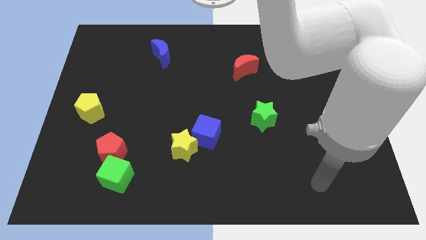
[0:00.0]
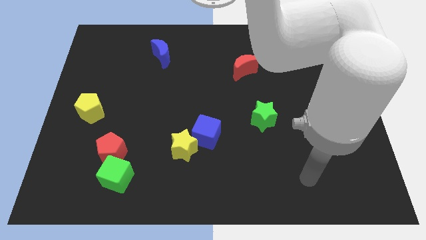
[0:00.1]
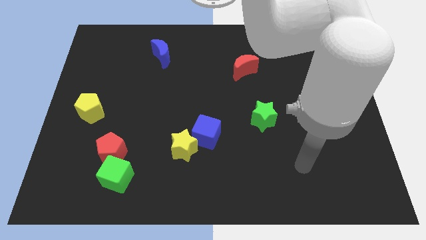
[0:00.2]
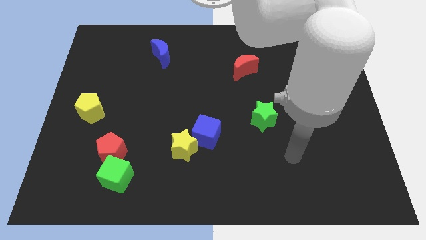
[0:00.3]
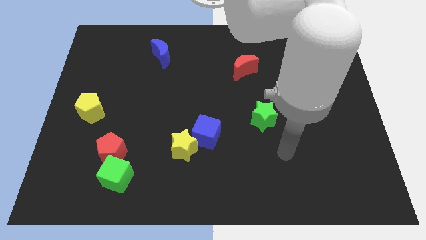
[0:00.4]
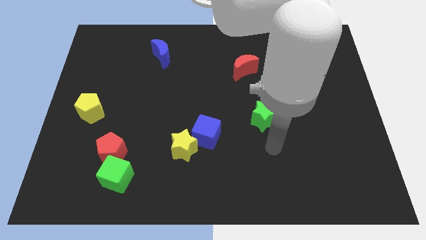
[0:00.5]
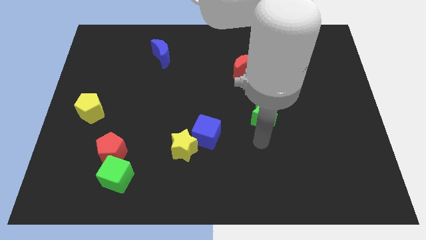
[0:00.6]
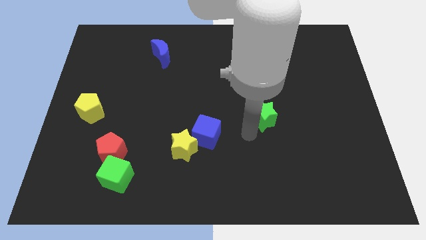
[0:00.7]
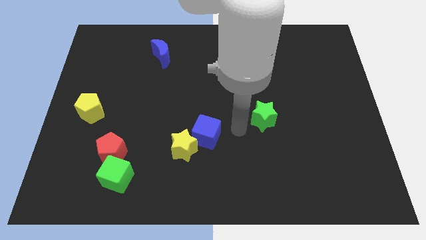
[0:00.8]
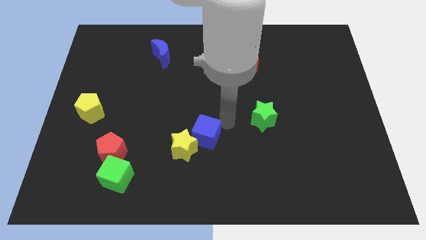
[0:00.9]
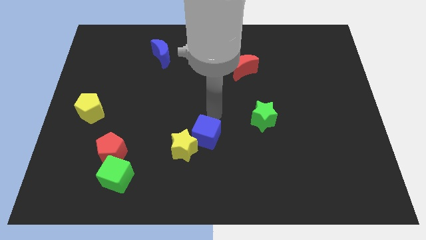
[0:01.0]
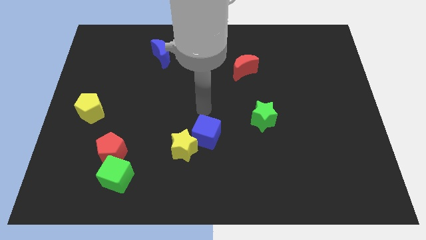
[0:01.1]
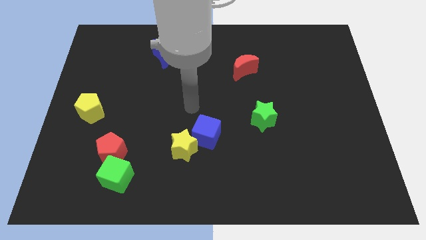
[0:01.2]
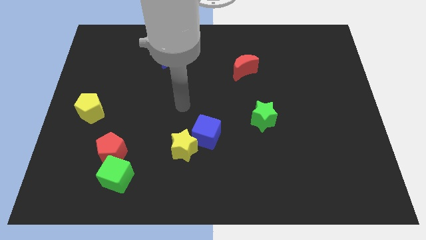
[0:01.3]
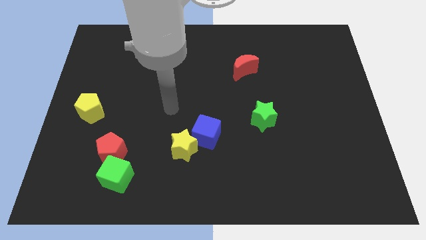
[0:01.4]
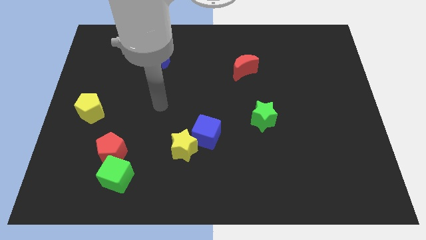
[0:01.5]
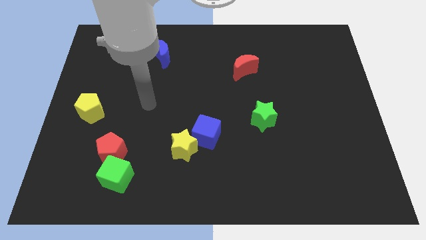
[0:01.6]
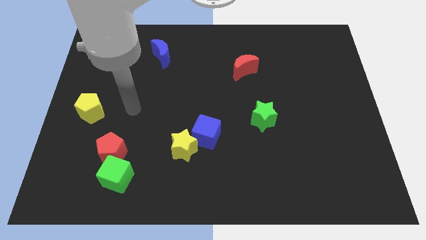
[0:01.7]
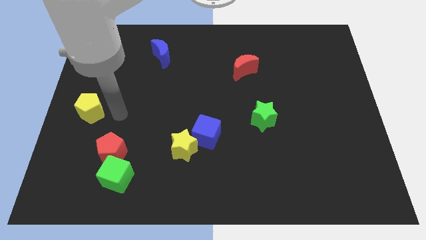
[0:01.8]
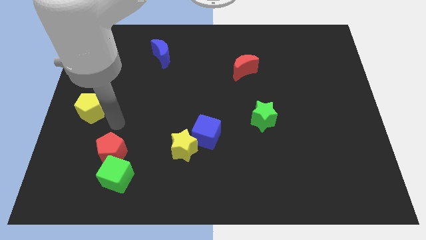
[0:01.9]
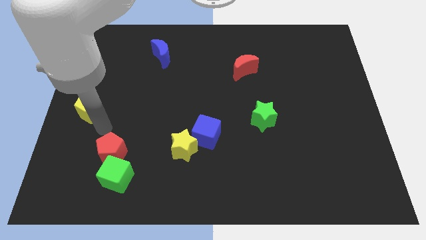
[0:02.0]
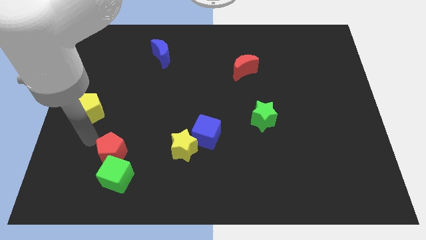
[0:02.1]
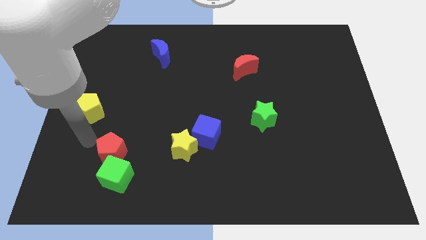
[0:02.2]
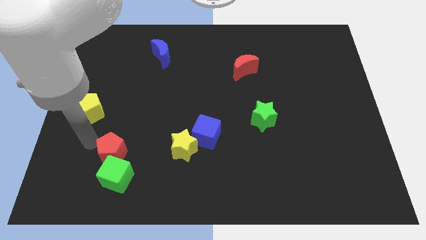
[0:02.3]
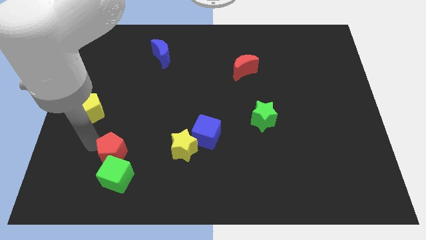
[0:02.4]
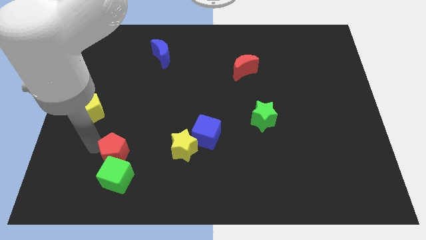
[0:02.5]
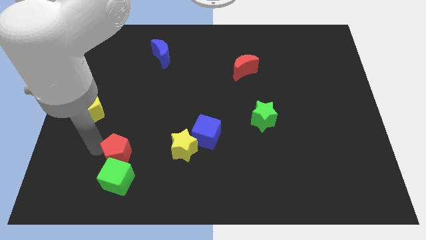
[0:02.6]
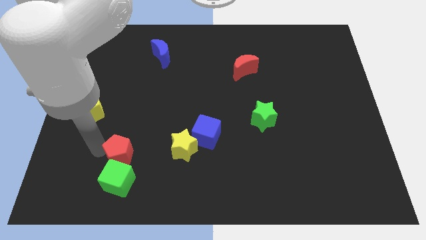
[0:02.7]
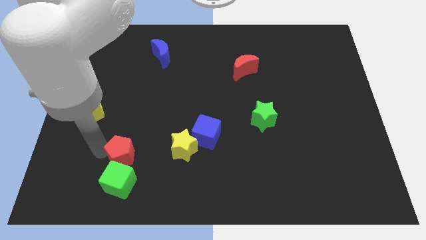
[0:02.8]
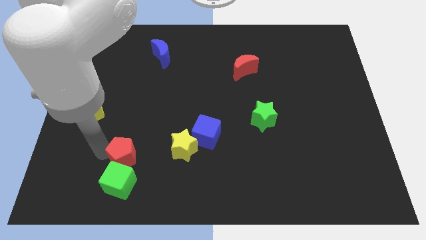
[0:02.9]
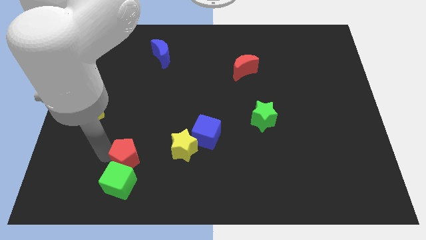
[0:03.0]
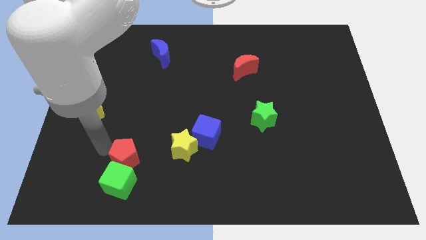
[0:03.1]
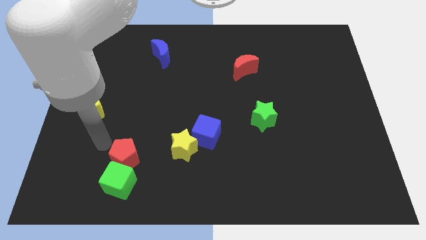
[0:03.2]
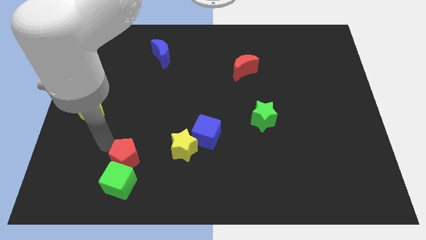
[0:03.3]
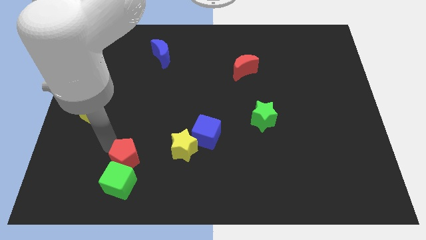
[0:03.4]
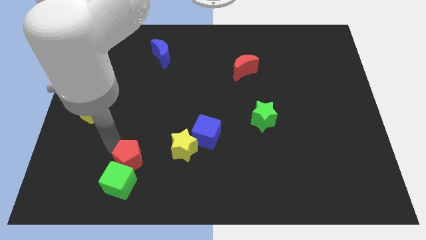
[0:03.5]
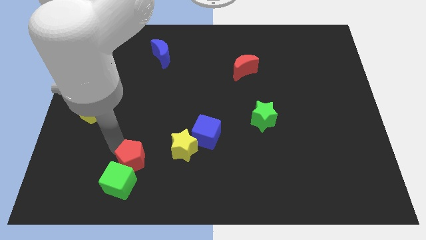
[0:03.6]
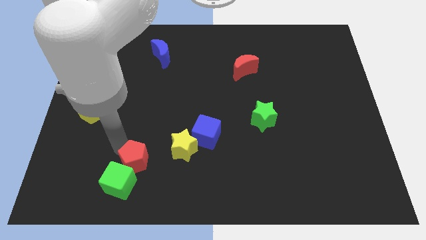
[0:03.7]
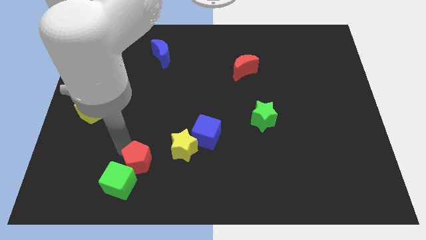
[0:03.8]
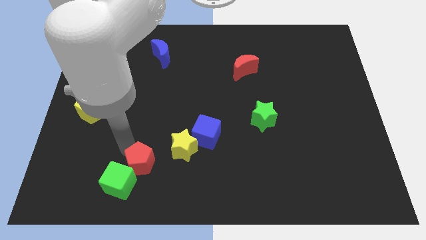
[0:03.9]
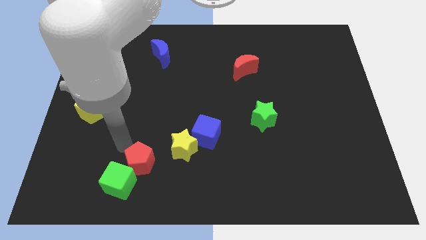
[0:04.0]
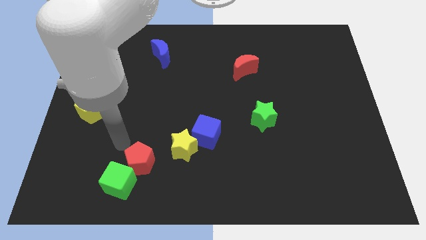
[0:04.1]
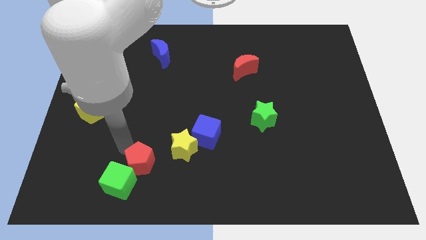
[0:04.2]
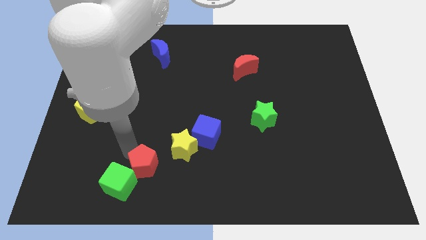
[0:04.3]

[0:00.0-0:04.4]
move the red pentagon a bit right

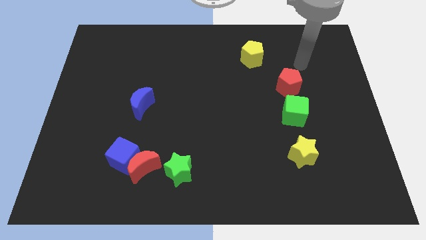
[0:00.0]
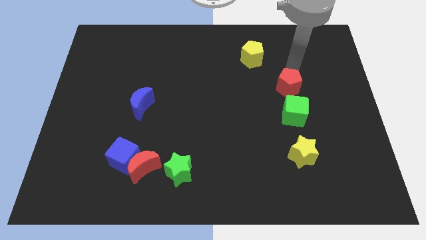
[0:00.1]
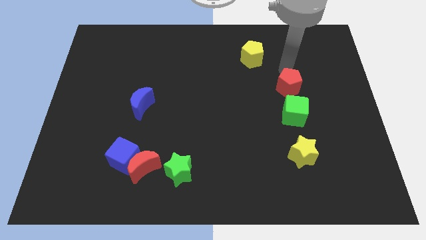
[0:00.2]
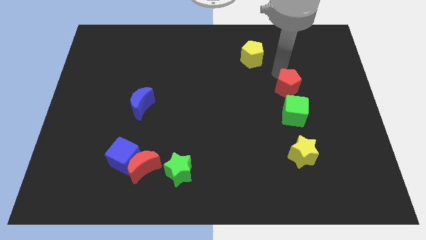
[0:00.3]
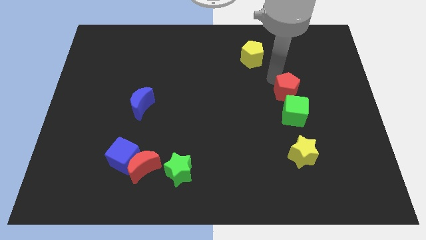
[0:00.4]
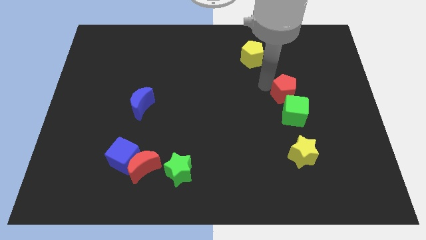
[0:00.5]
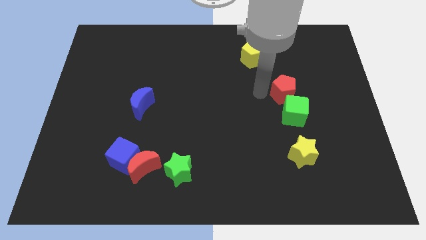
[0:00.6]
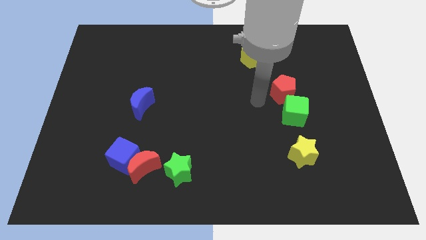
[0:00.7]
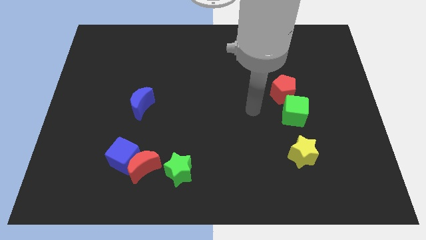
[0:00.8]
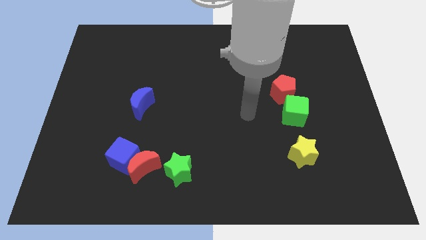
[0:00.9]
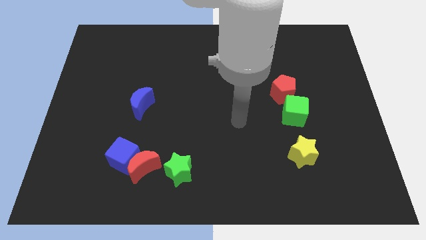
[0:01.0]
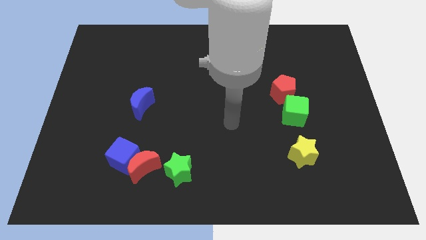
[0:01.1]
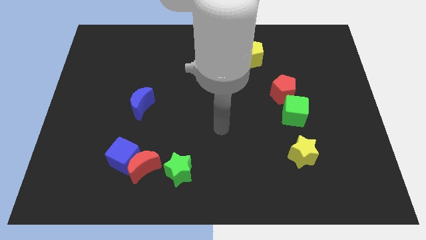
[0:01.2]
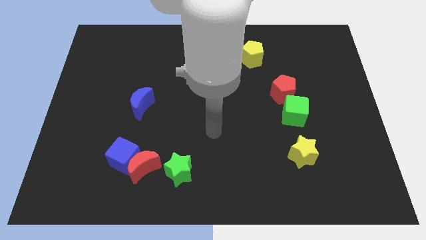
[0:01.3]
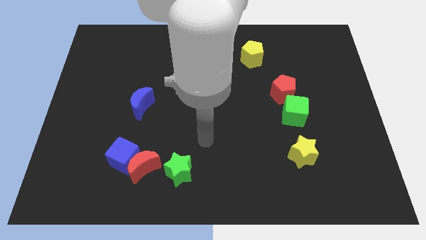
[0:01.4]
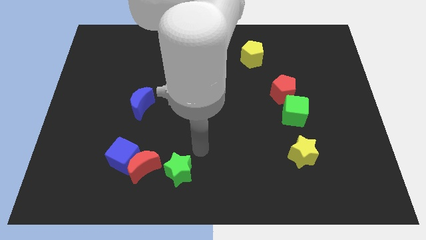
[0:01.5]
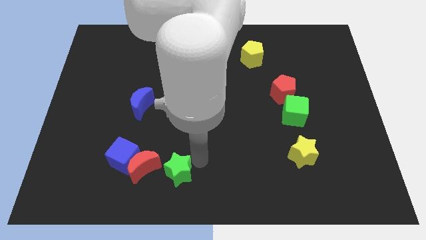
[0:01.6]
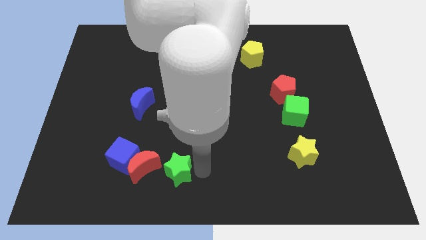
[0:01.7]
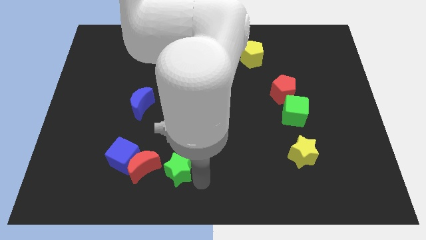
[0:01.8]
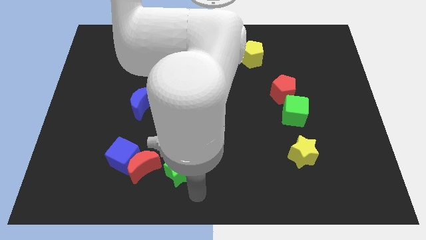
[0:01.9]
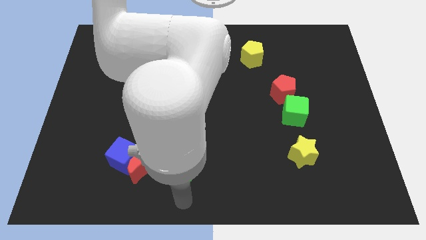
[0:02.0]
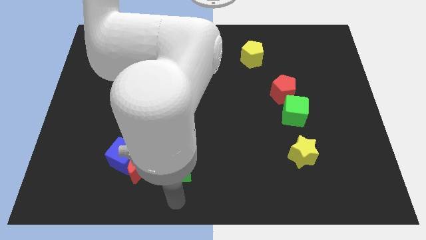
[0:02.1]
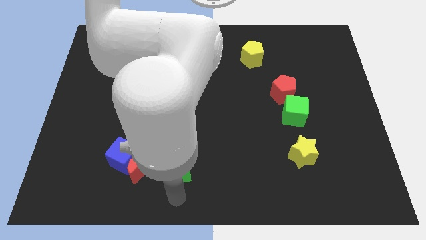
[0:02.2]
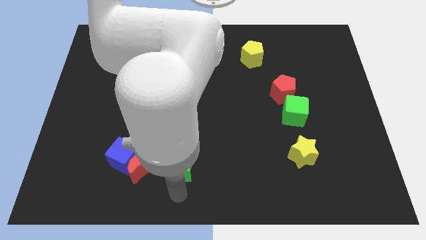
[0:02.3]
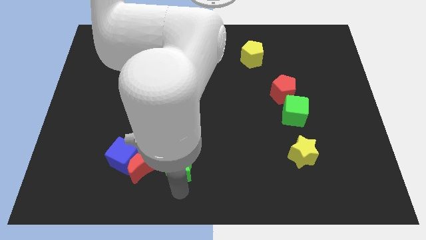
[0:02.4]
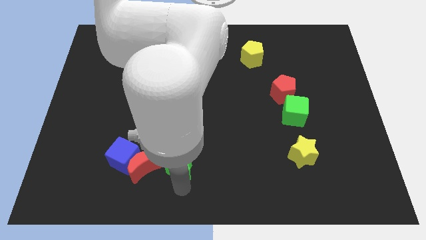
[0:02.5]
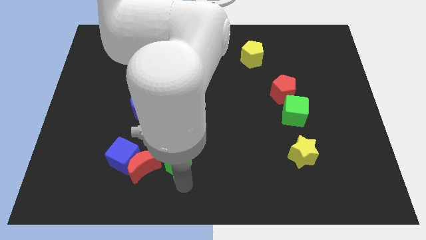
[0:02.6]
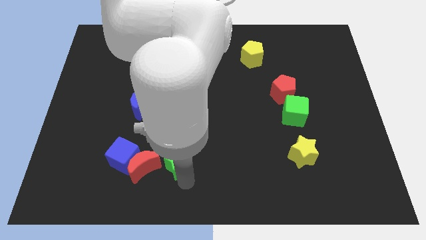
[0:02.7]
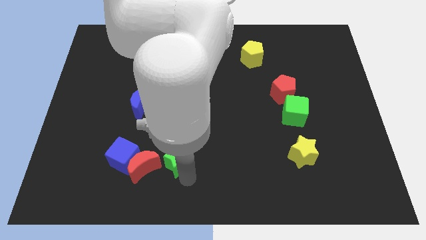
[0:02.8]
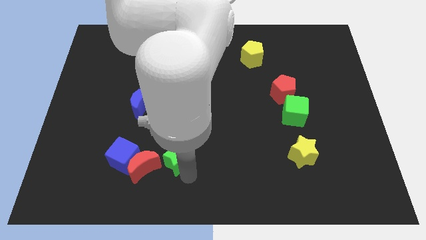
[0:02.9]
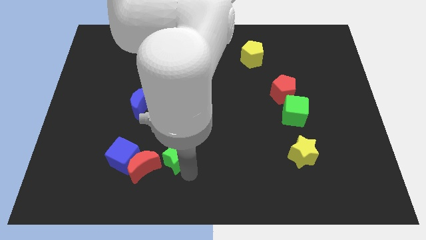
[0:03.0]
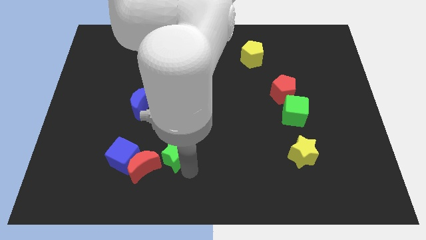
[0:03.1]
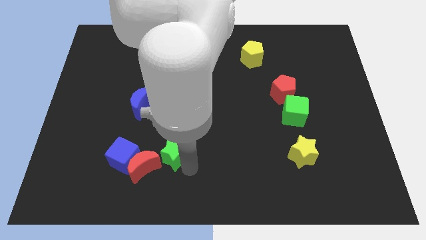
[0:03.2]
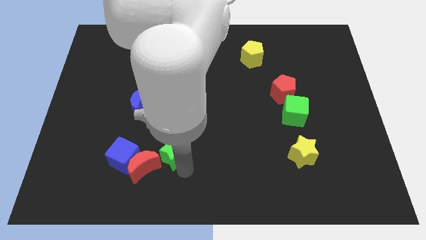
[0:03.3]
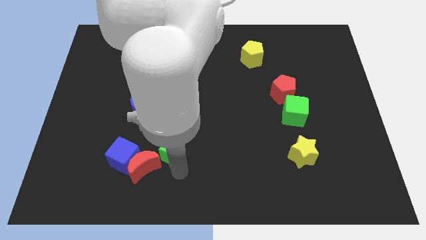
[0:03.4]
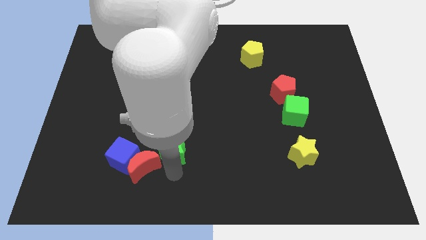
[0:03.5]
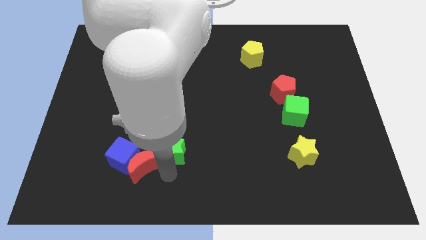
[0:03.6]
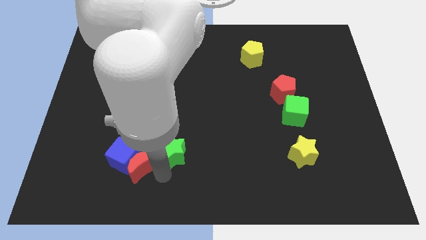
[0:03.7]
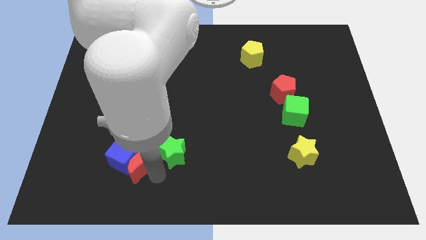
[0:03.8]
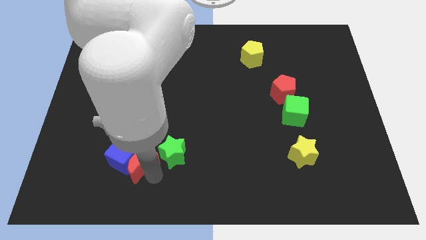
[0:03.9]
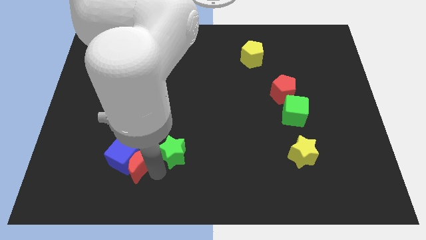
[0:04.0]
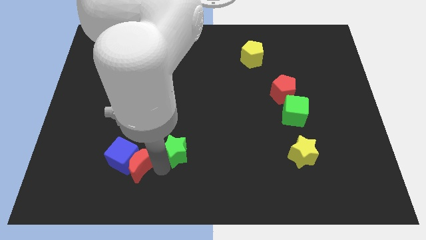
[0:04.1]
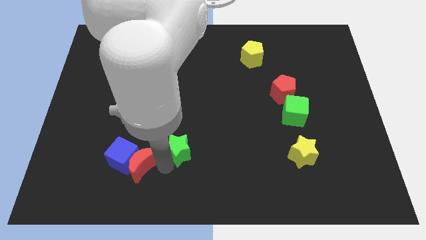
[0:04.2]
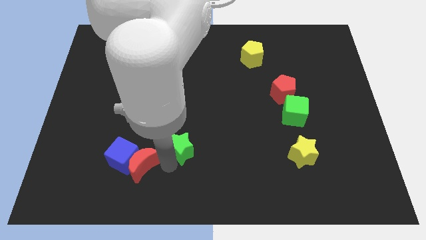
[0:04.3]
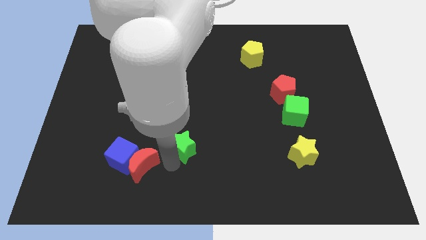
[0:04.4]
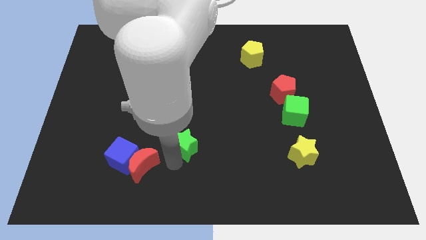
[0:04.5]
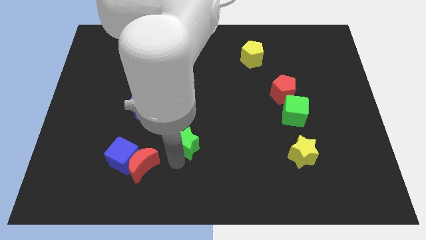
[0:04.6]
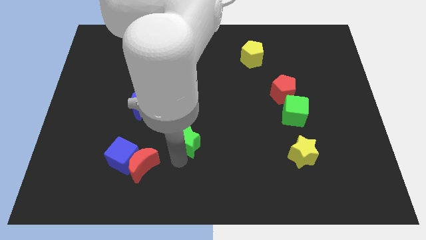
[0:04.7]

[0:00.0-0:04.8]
push the green star slightly up
